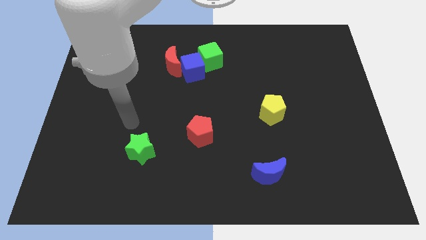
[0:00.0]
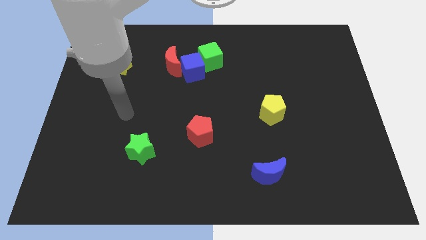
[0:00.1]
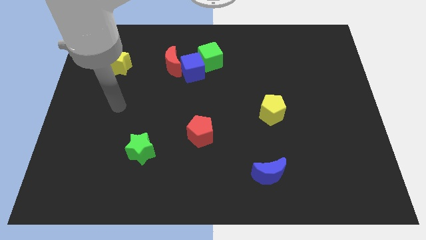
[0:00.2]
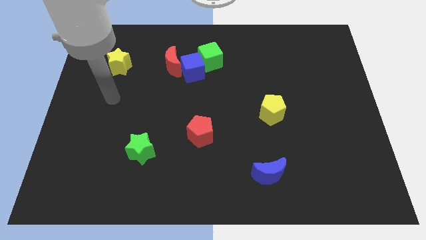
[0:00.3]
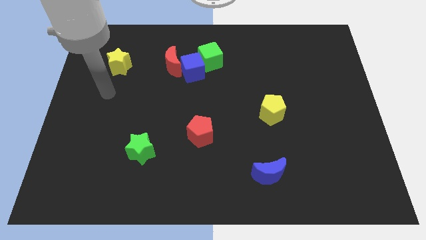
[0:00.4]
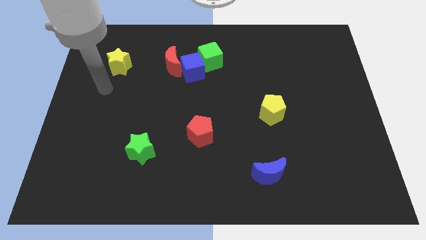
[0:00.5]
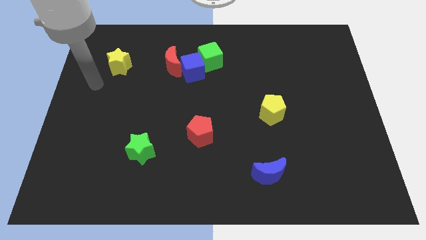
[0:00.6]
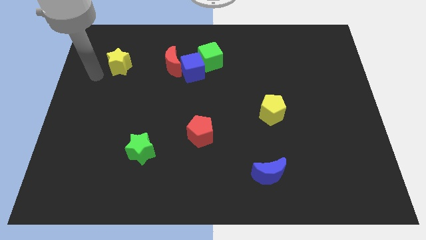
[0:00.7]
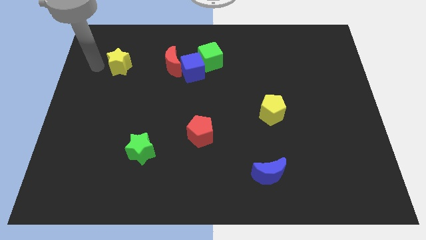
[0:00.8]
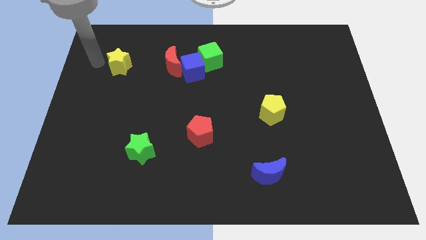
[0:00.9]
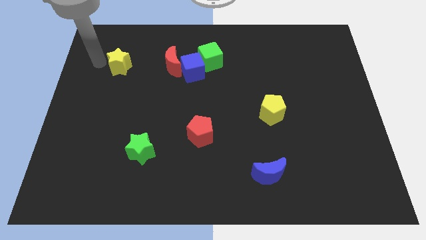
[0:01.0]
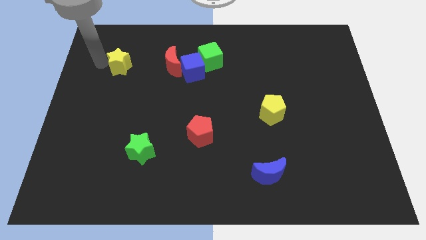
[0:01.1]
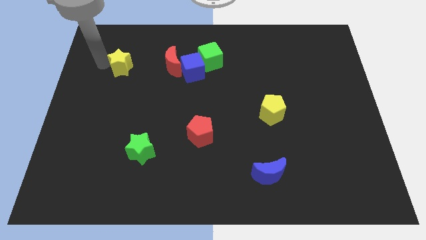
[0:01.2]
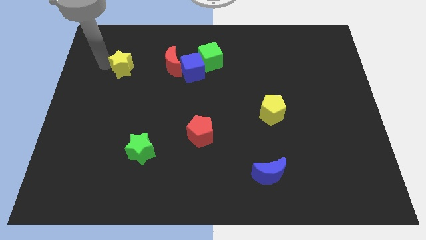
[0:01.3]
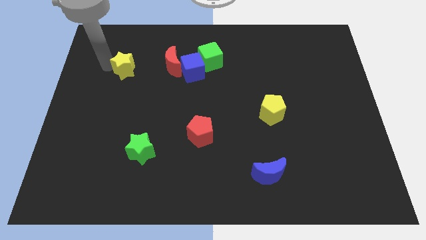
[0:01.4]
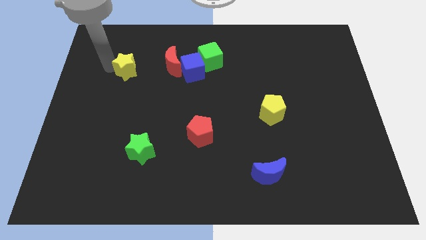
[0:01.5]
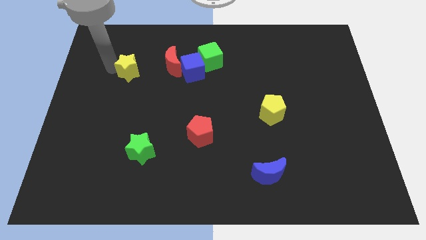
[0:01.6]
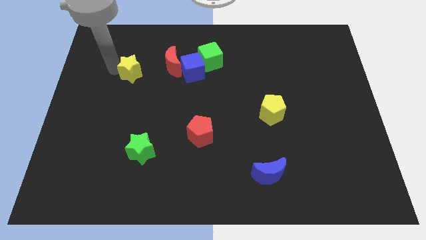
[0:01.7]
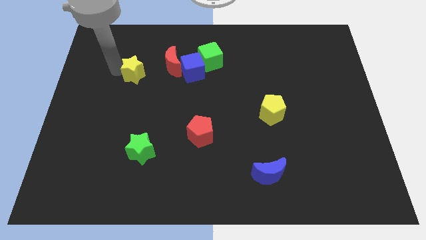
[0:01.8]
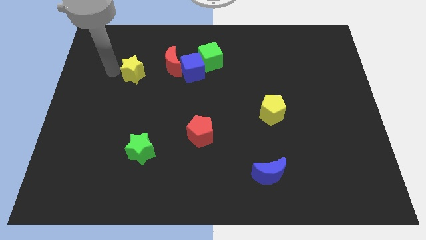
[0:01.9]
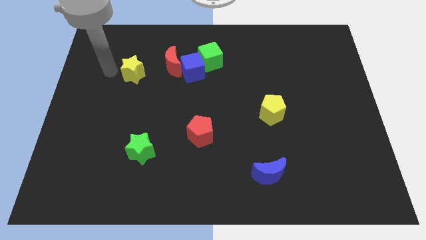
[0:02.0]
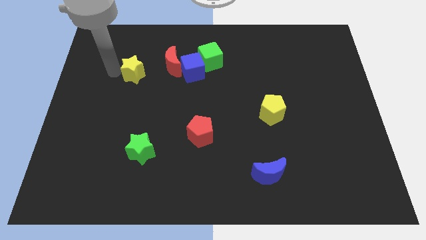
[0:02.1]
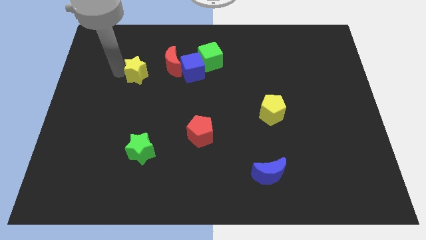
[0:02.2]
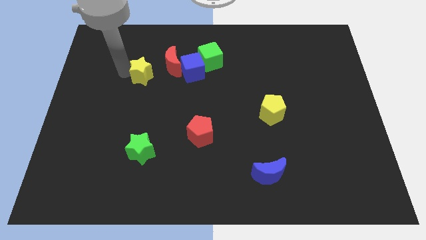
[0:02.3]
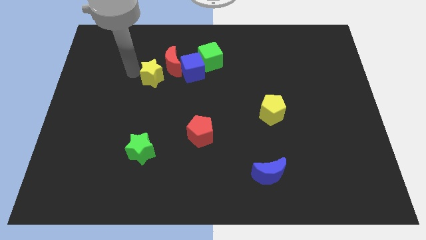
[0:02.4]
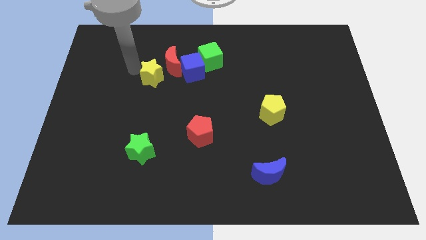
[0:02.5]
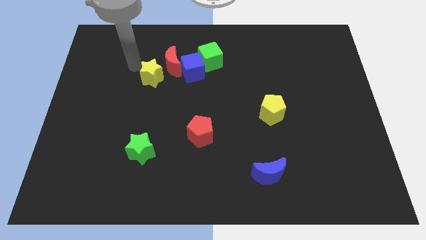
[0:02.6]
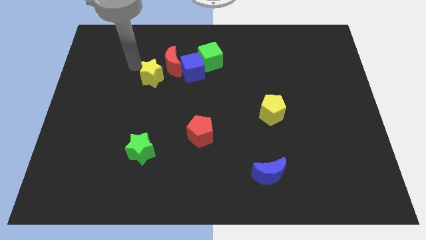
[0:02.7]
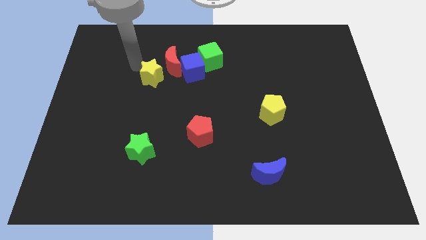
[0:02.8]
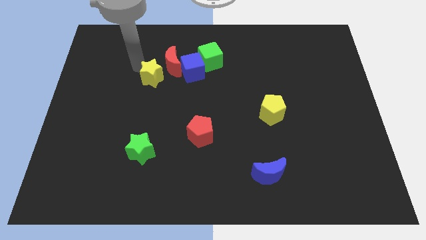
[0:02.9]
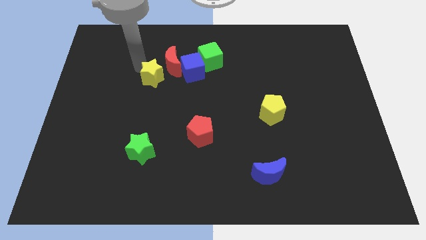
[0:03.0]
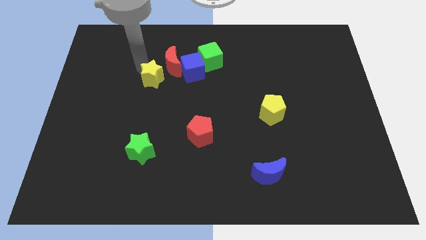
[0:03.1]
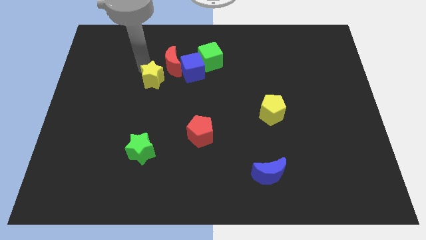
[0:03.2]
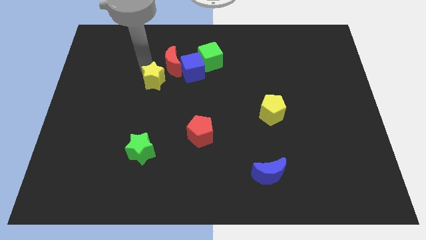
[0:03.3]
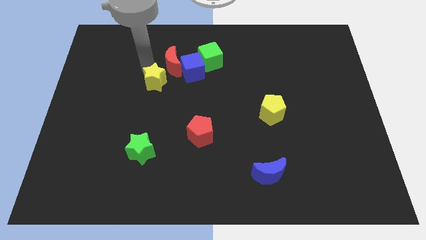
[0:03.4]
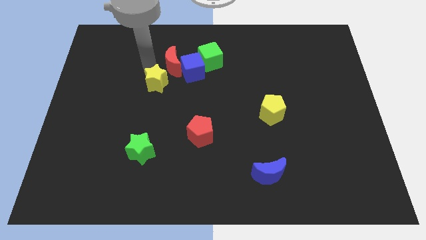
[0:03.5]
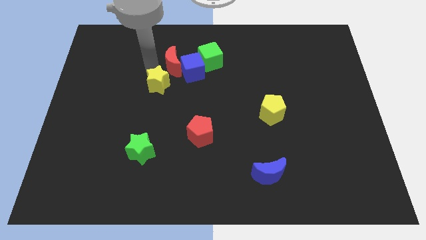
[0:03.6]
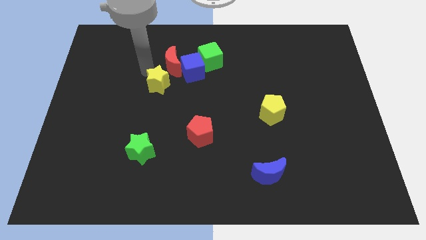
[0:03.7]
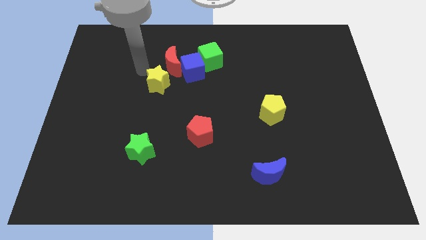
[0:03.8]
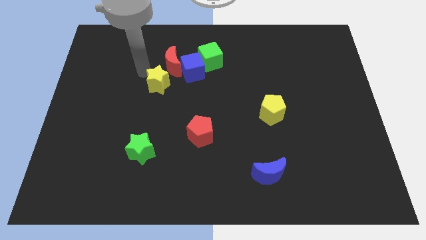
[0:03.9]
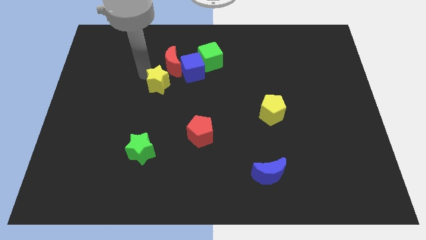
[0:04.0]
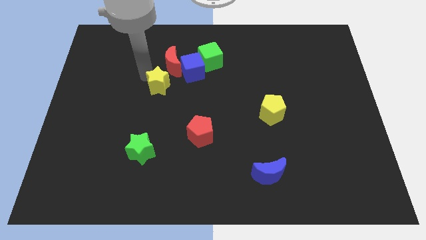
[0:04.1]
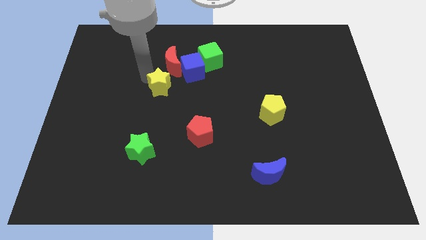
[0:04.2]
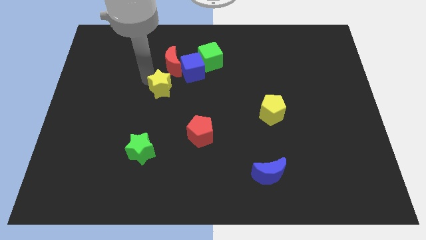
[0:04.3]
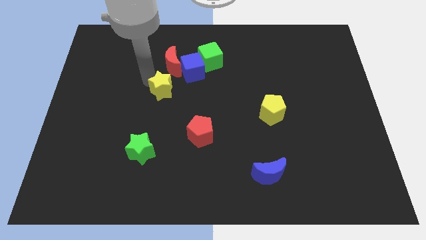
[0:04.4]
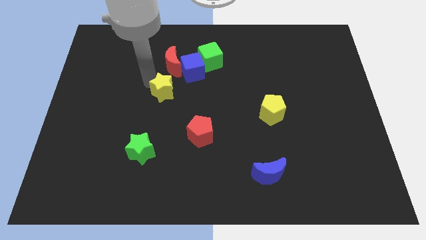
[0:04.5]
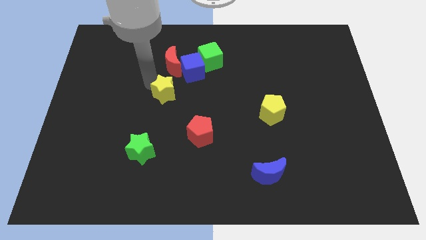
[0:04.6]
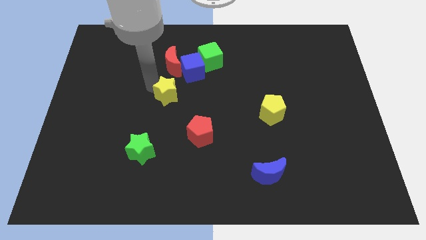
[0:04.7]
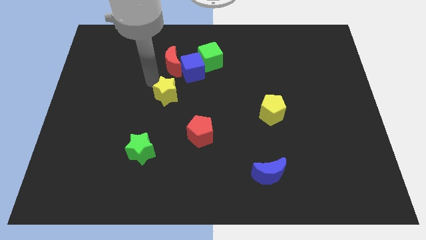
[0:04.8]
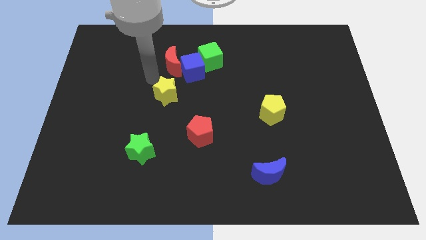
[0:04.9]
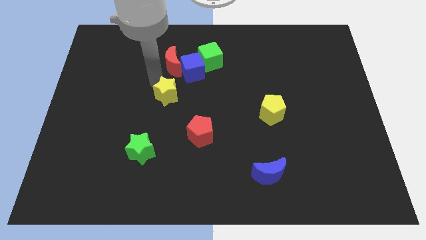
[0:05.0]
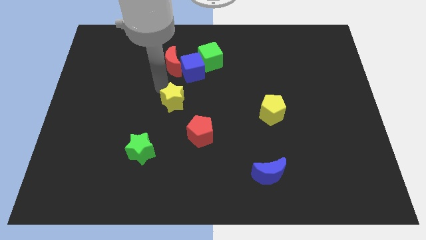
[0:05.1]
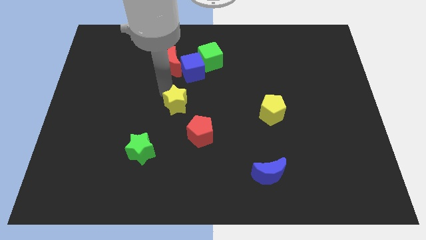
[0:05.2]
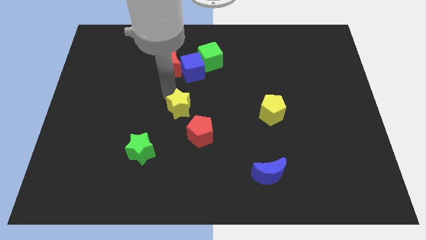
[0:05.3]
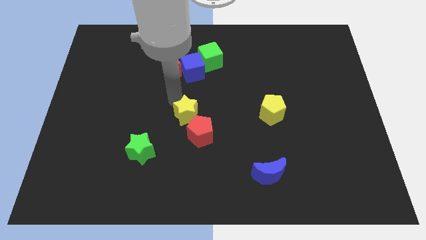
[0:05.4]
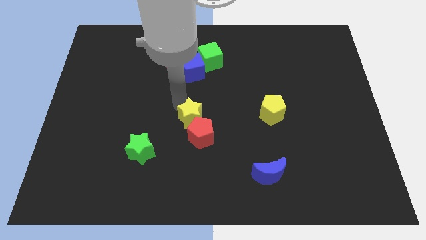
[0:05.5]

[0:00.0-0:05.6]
slide the yellow star to the red pentagon

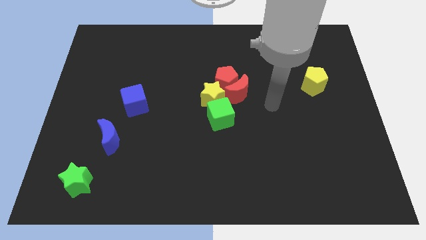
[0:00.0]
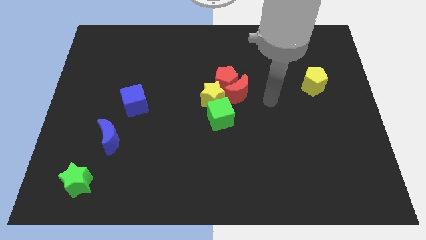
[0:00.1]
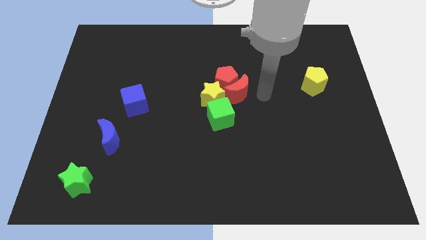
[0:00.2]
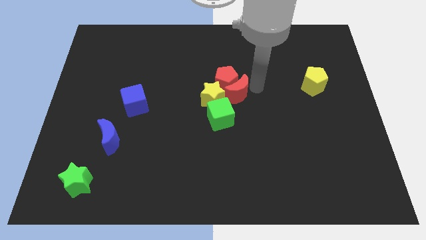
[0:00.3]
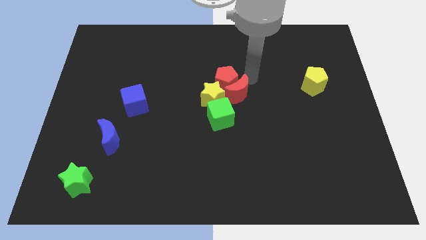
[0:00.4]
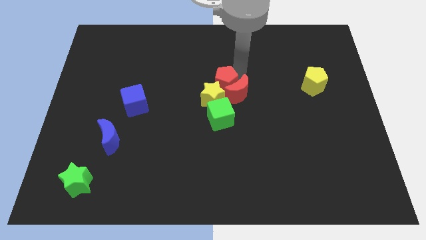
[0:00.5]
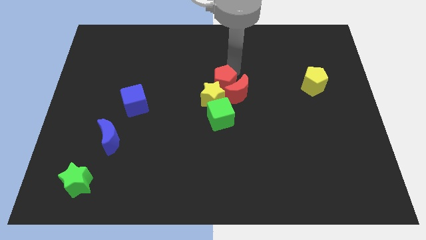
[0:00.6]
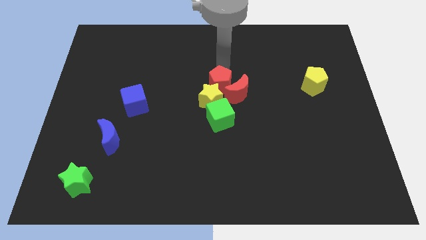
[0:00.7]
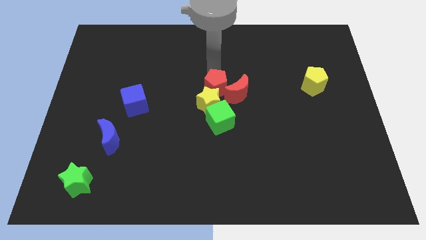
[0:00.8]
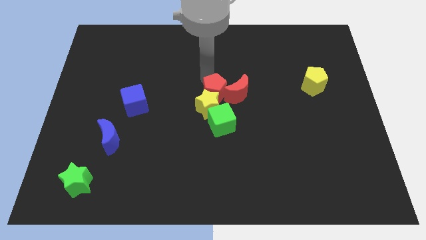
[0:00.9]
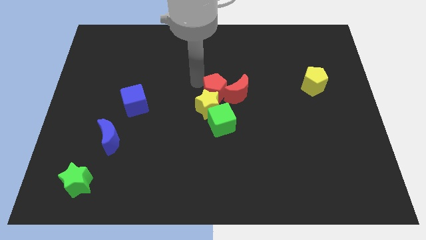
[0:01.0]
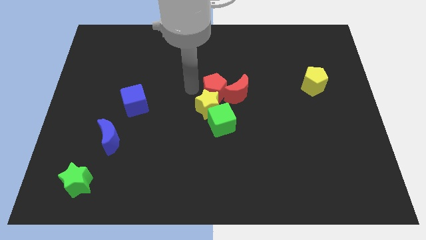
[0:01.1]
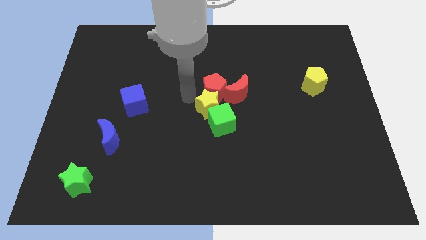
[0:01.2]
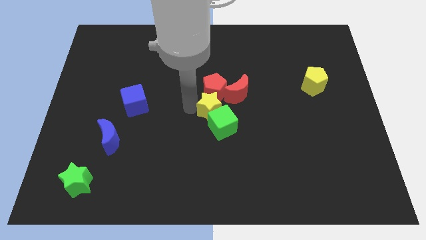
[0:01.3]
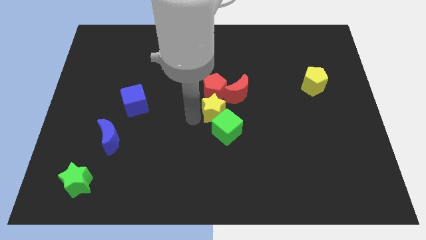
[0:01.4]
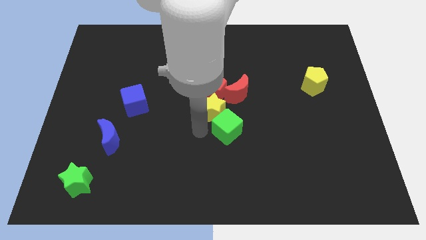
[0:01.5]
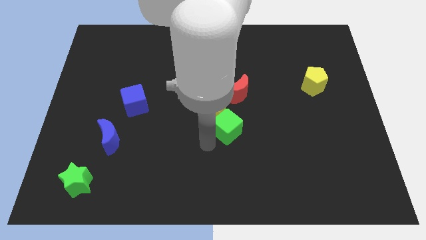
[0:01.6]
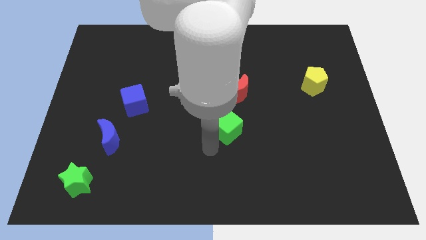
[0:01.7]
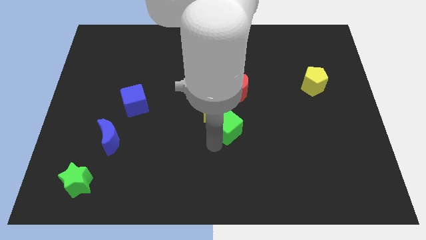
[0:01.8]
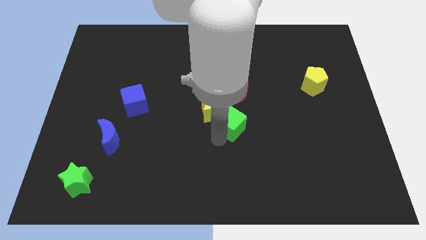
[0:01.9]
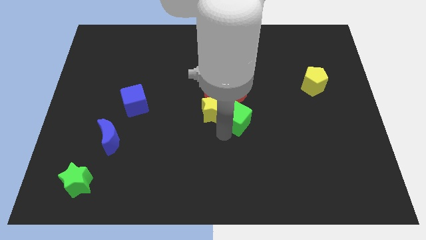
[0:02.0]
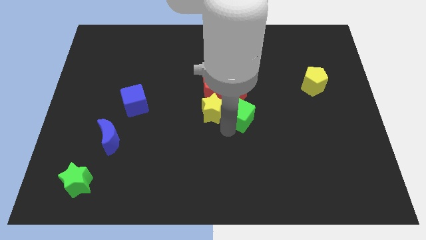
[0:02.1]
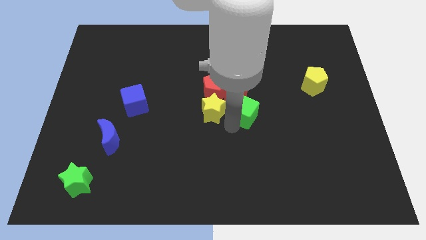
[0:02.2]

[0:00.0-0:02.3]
put the green cube to the red moon

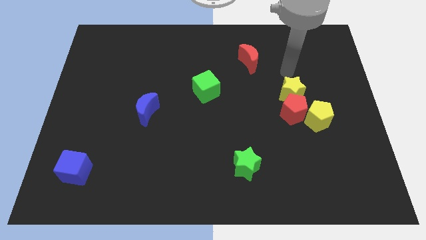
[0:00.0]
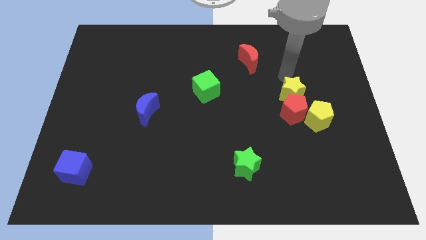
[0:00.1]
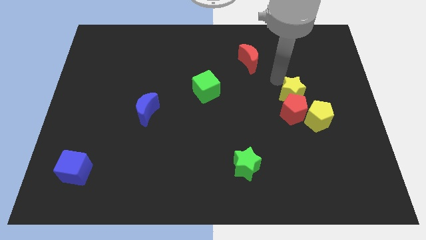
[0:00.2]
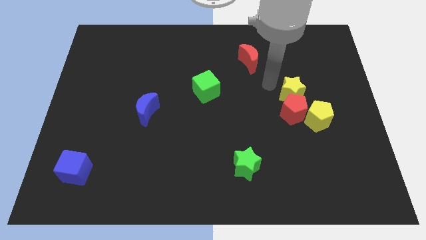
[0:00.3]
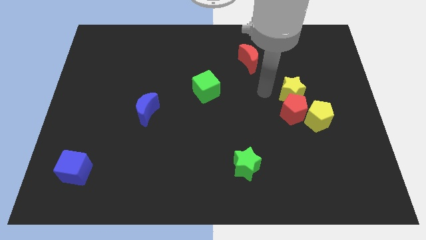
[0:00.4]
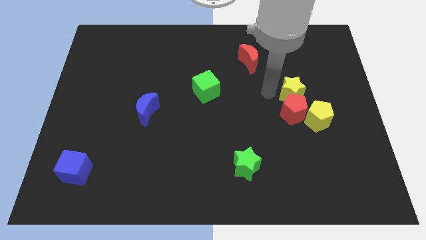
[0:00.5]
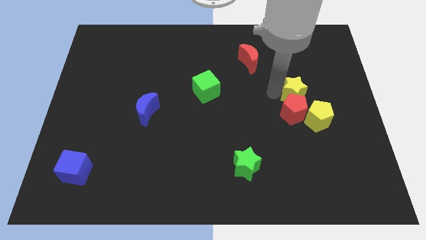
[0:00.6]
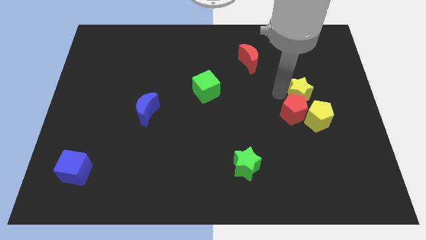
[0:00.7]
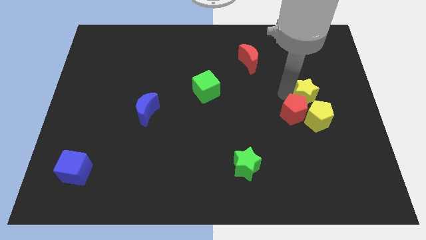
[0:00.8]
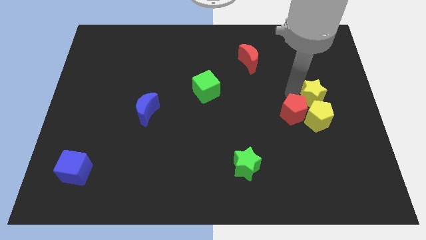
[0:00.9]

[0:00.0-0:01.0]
slide the yellow star next to the yellow pentagon
